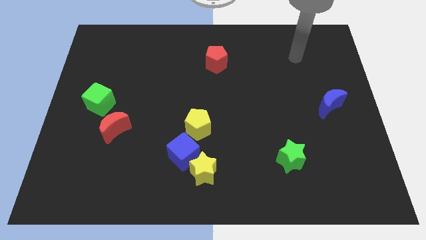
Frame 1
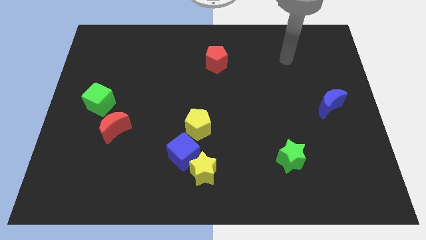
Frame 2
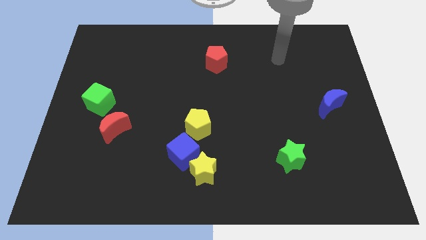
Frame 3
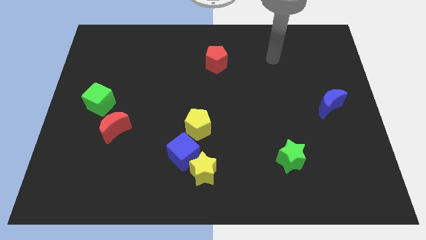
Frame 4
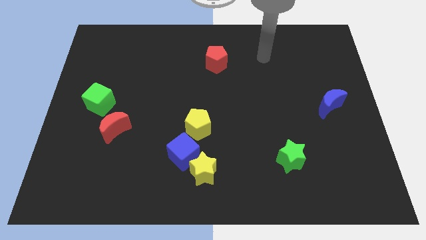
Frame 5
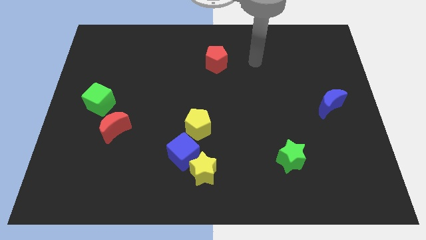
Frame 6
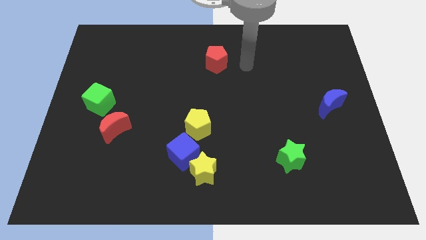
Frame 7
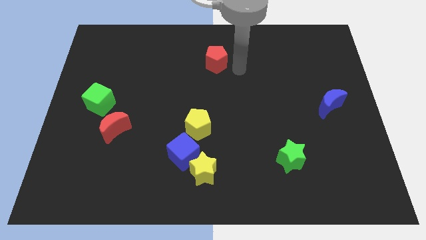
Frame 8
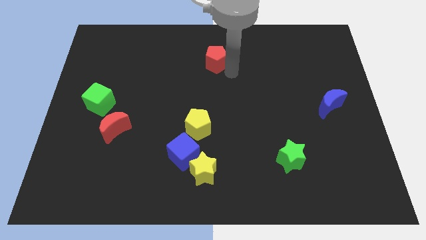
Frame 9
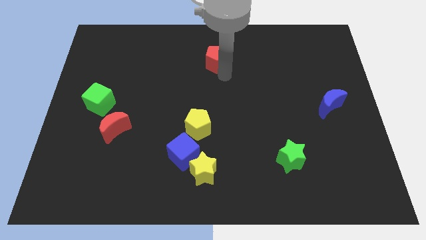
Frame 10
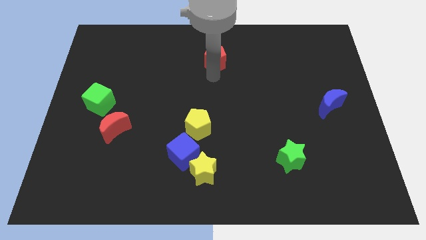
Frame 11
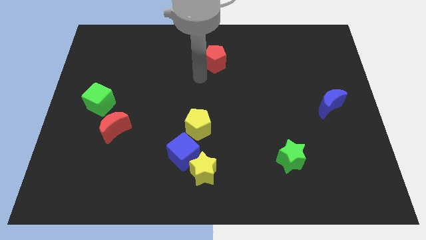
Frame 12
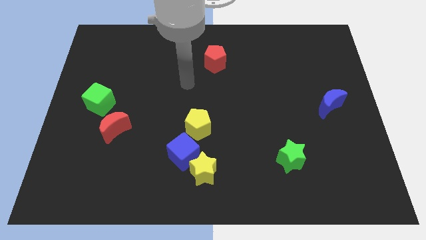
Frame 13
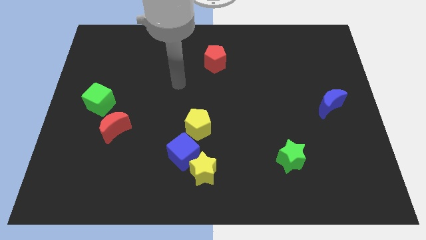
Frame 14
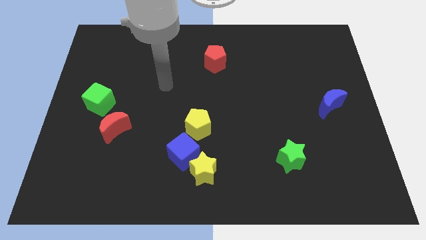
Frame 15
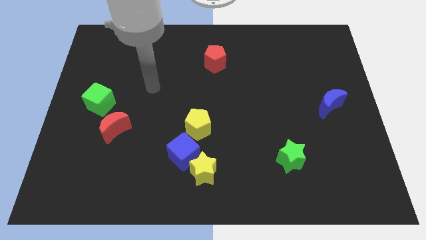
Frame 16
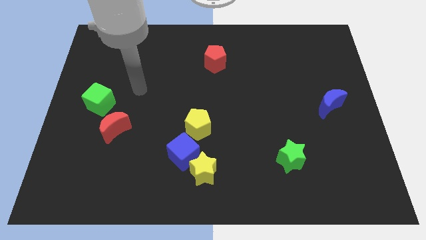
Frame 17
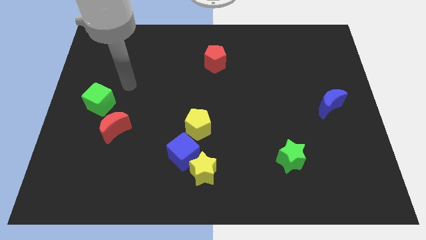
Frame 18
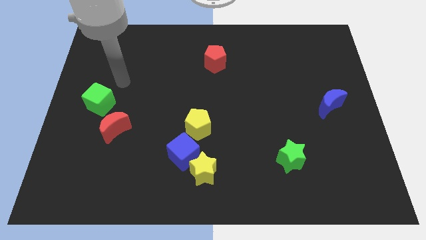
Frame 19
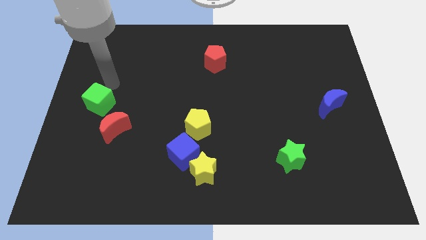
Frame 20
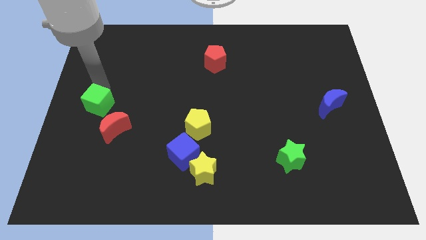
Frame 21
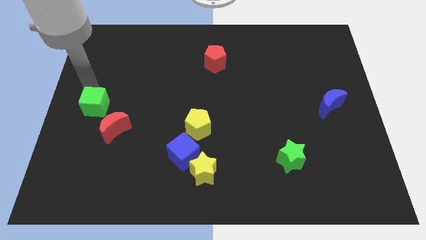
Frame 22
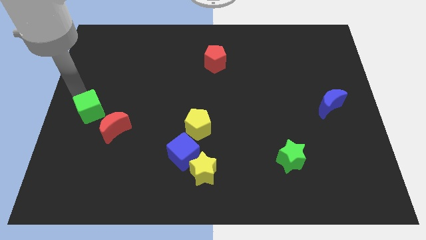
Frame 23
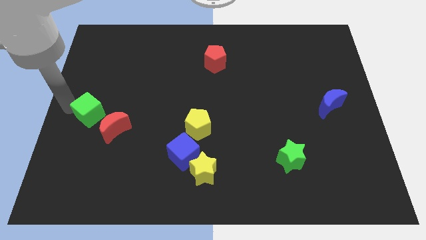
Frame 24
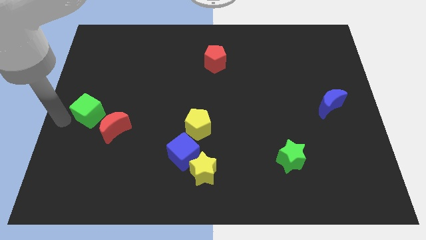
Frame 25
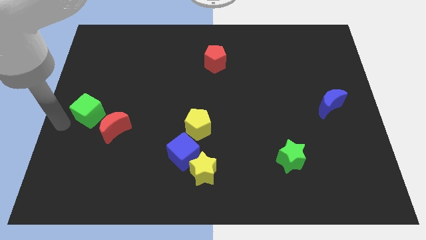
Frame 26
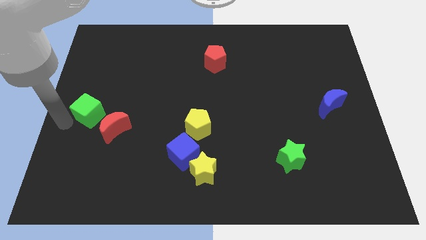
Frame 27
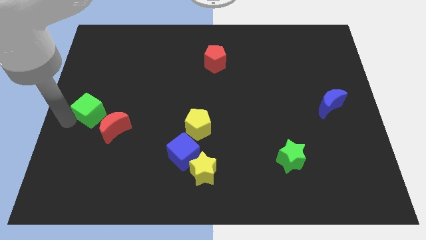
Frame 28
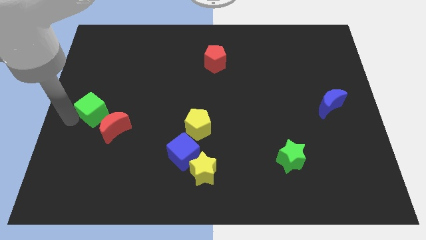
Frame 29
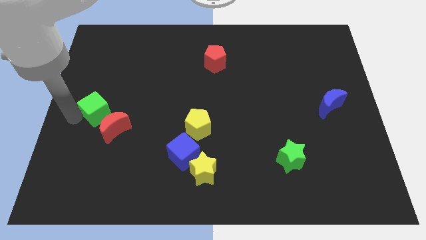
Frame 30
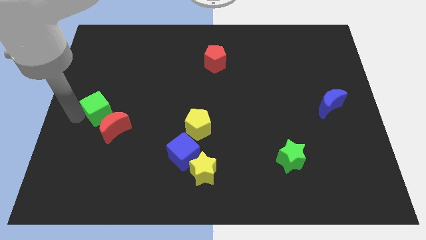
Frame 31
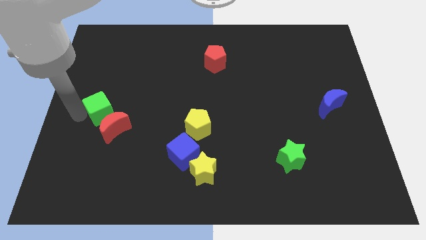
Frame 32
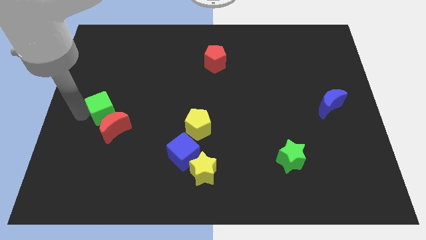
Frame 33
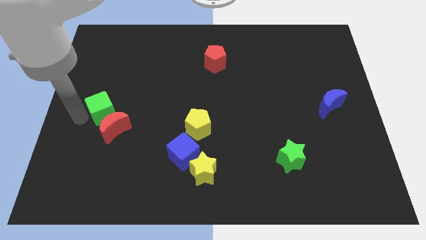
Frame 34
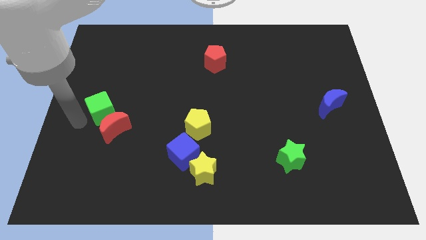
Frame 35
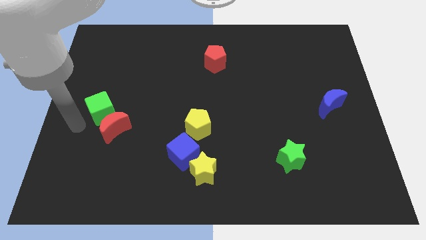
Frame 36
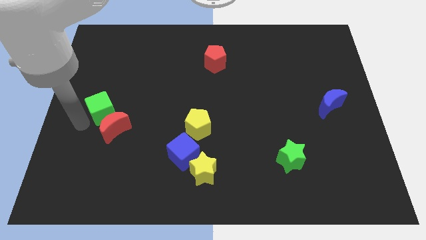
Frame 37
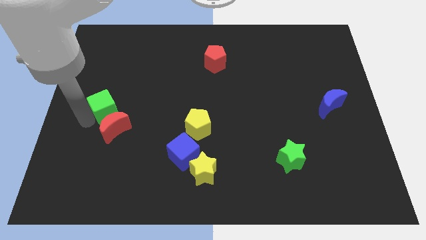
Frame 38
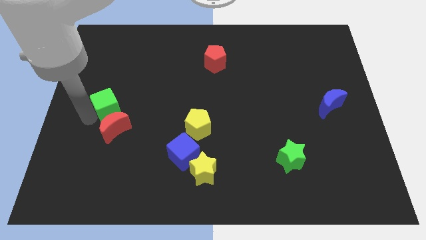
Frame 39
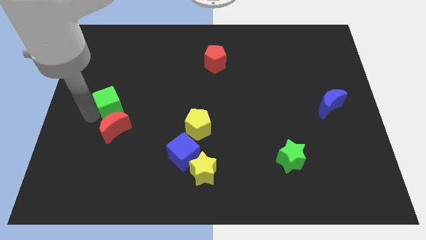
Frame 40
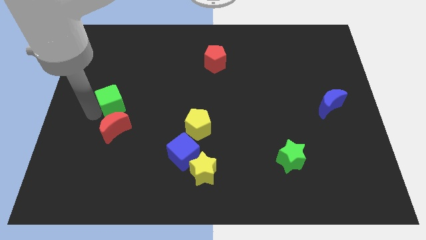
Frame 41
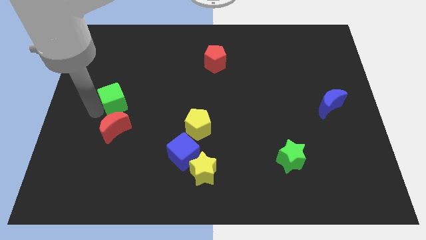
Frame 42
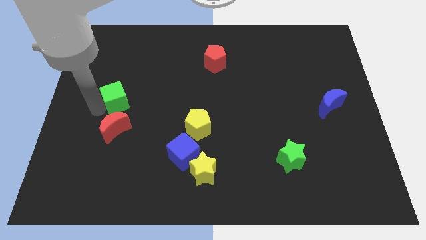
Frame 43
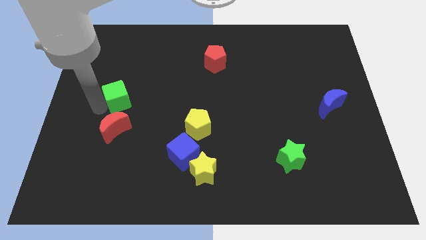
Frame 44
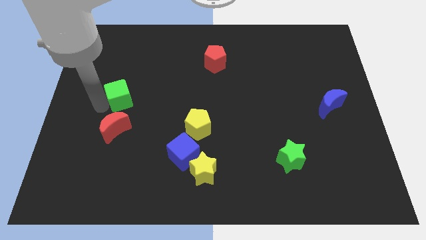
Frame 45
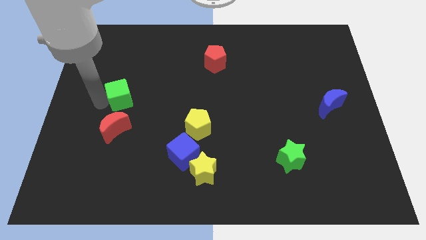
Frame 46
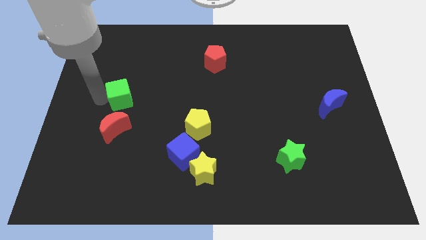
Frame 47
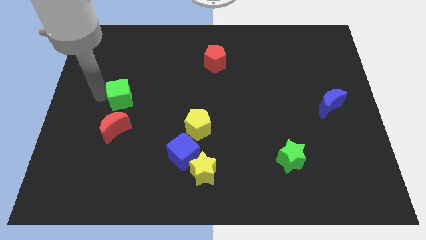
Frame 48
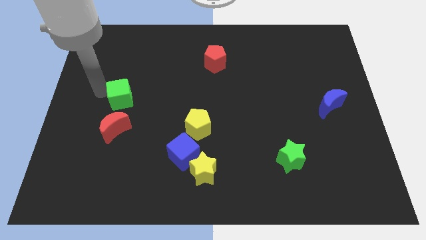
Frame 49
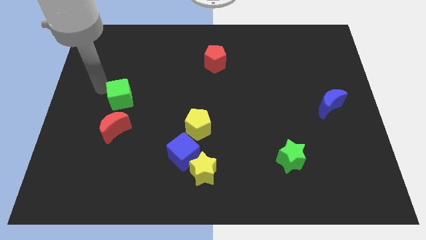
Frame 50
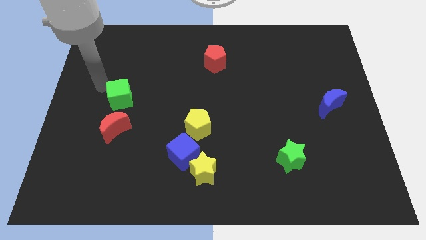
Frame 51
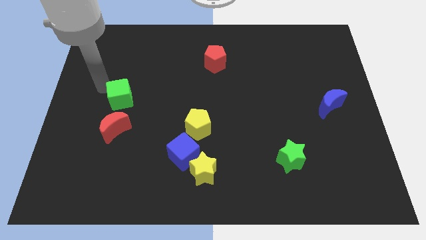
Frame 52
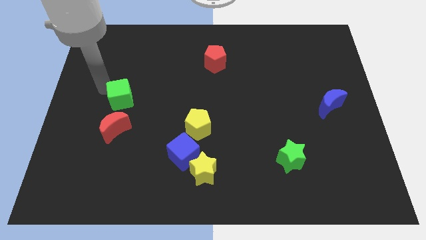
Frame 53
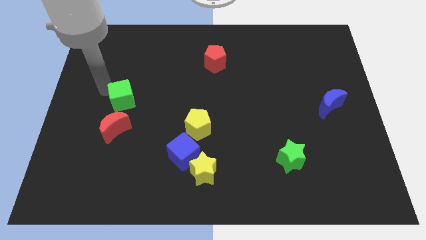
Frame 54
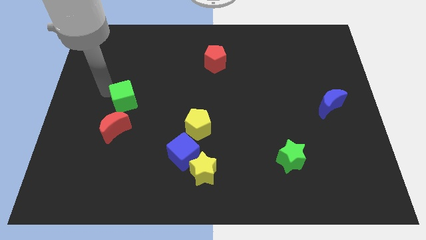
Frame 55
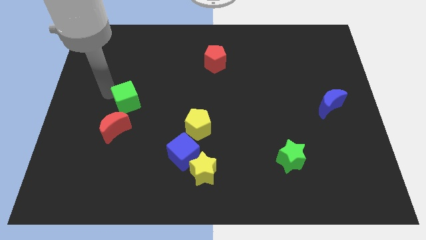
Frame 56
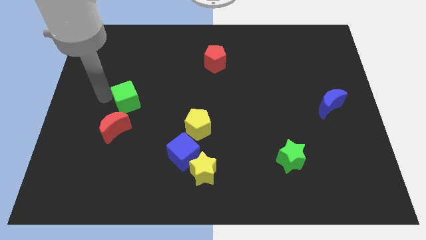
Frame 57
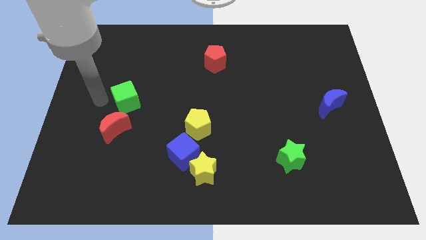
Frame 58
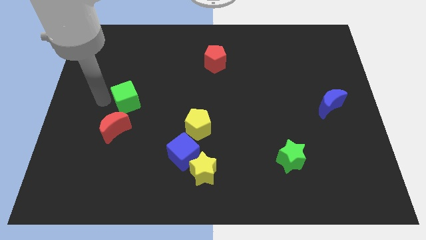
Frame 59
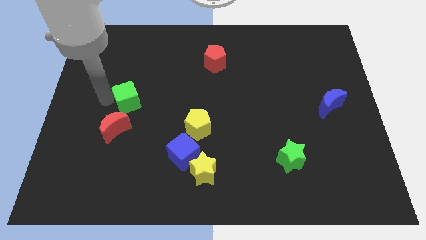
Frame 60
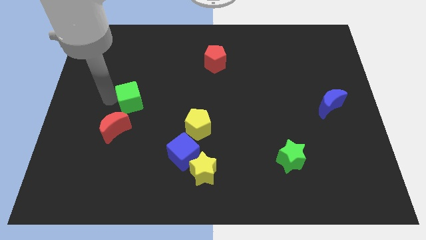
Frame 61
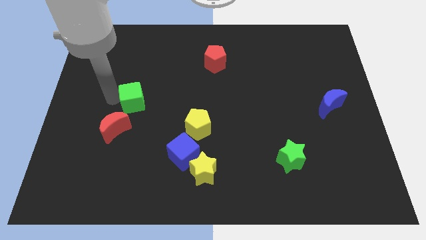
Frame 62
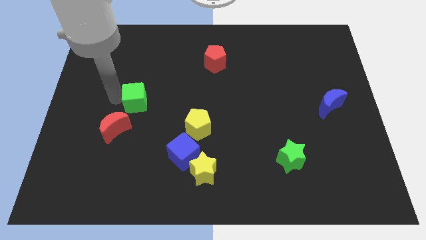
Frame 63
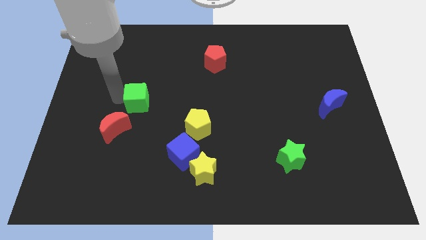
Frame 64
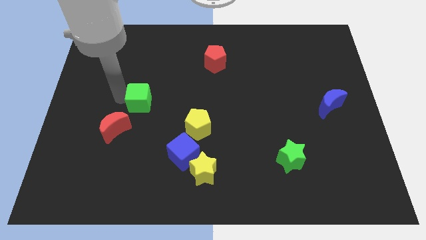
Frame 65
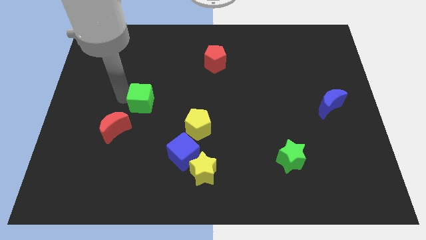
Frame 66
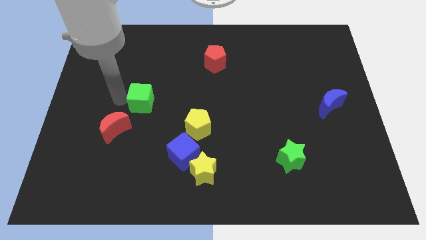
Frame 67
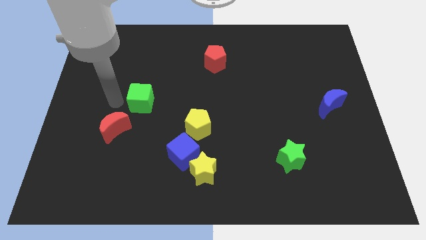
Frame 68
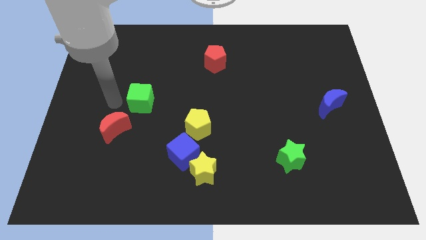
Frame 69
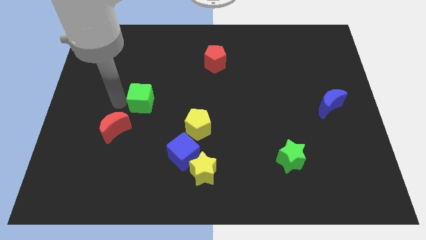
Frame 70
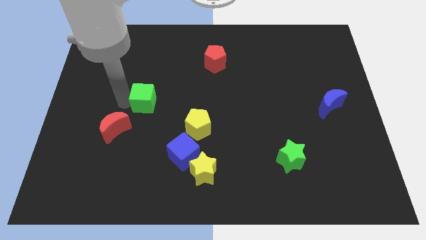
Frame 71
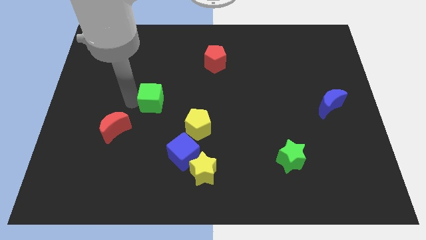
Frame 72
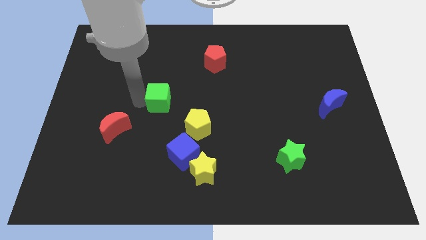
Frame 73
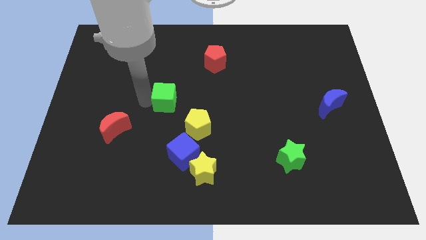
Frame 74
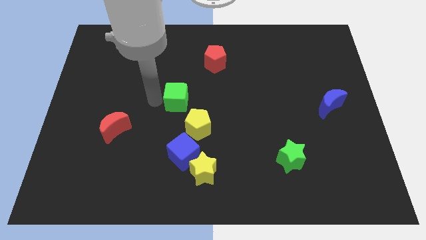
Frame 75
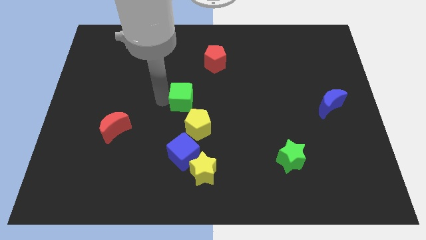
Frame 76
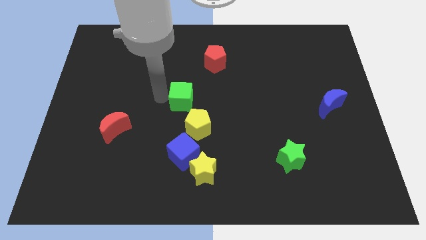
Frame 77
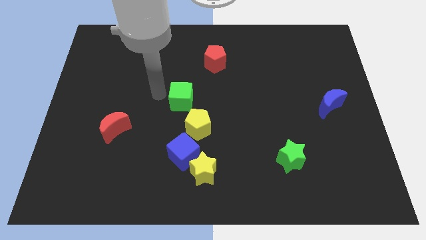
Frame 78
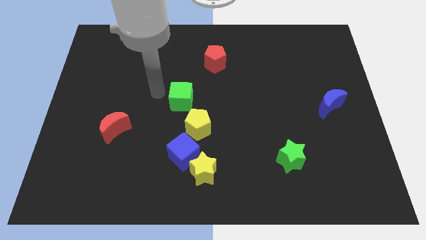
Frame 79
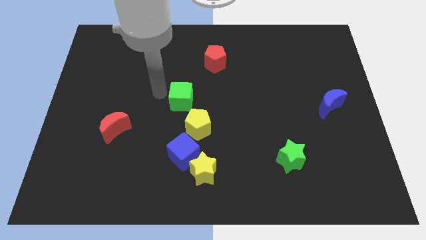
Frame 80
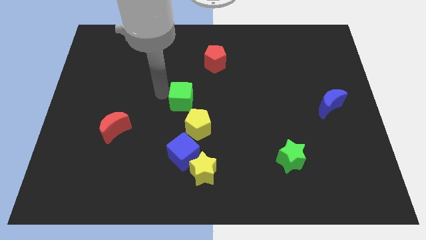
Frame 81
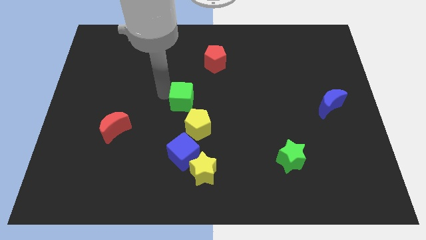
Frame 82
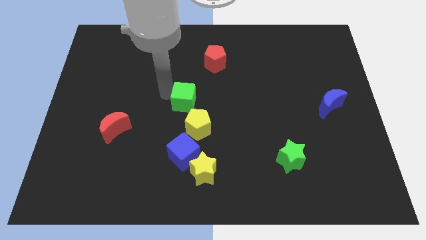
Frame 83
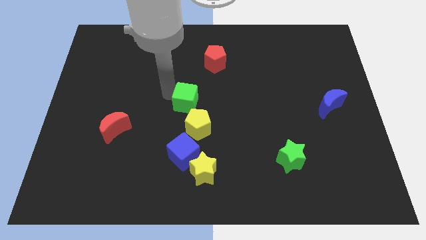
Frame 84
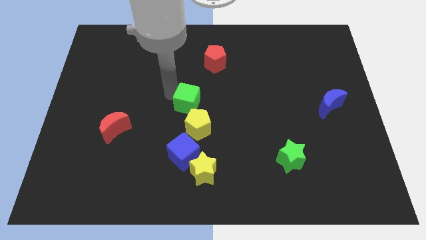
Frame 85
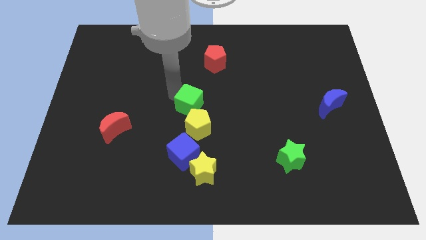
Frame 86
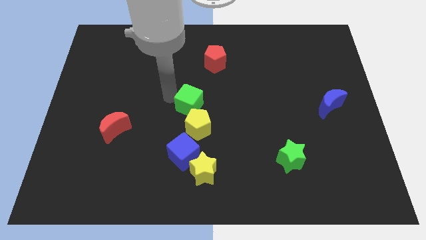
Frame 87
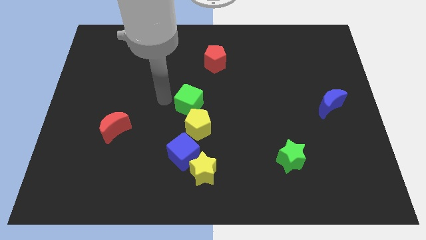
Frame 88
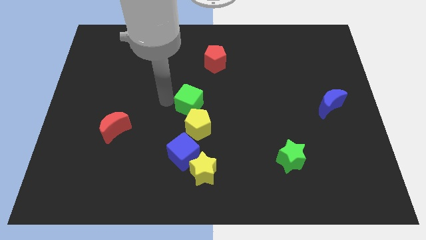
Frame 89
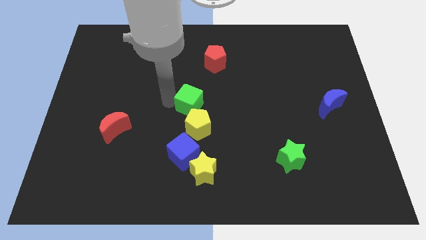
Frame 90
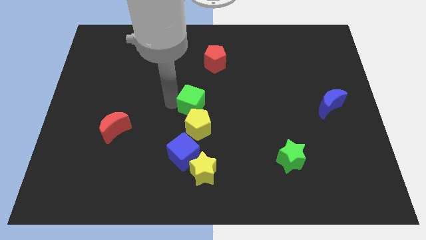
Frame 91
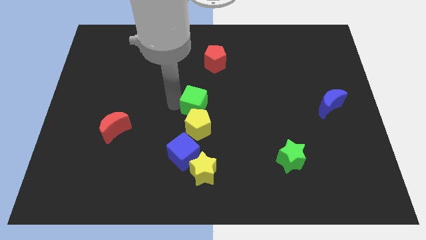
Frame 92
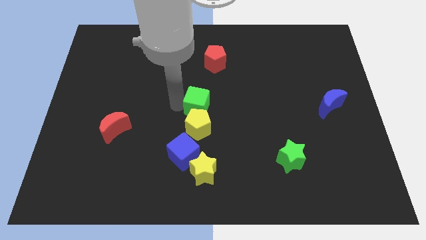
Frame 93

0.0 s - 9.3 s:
move the green cube to the top right of the yellow pentagon
